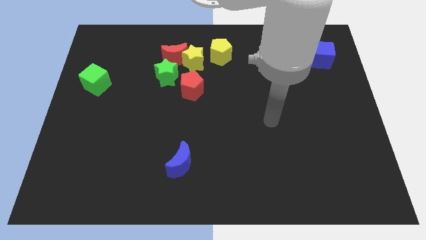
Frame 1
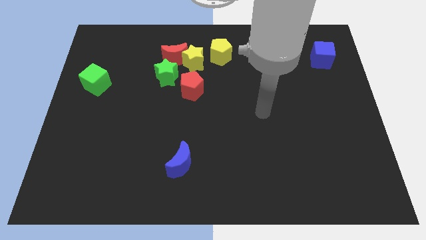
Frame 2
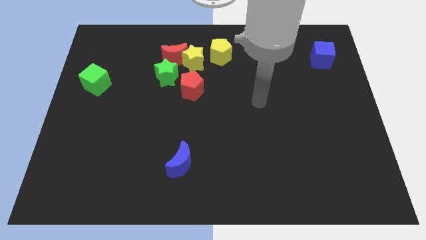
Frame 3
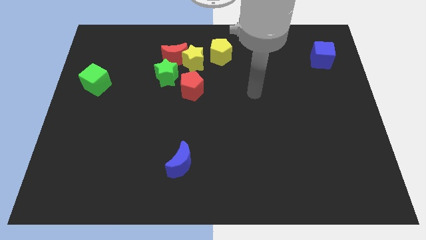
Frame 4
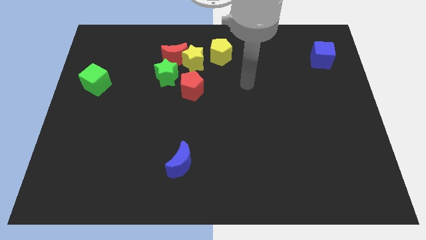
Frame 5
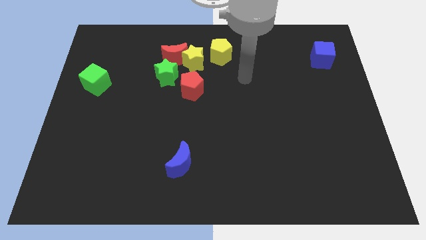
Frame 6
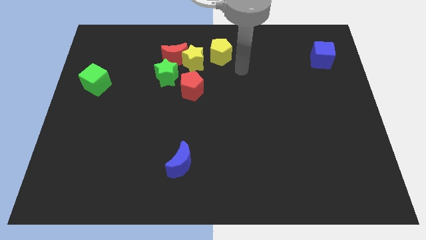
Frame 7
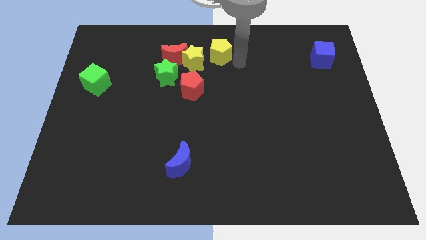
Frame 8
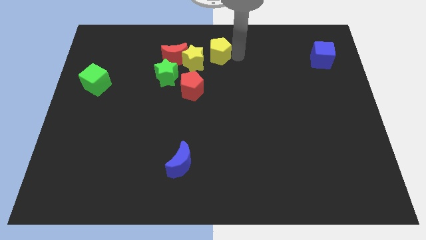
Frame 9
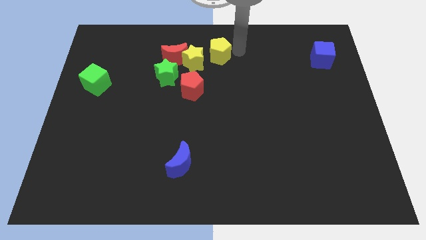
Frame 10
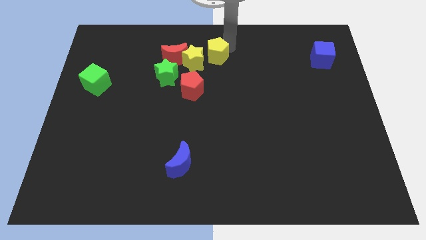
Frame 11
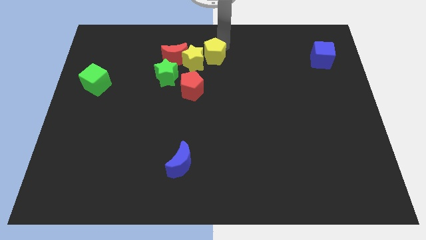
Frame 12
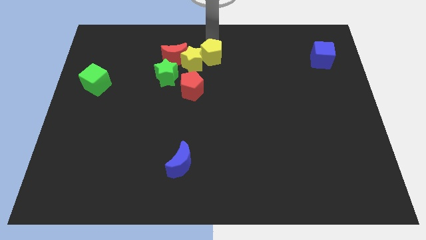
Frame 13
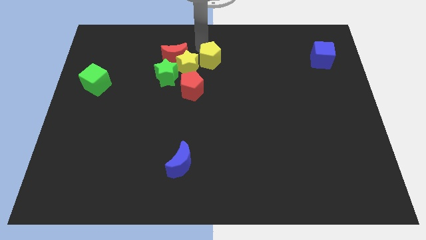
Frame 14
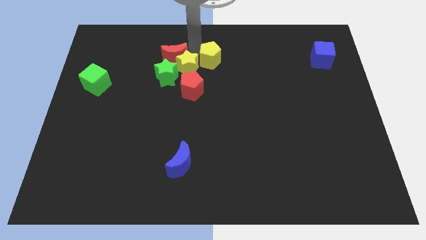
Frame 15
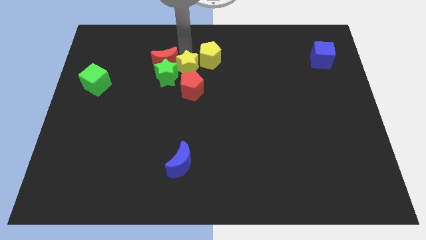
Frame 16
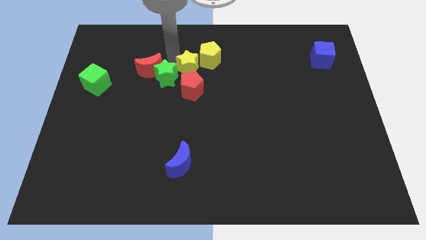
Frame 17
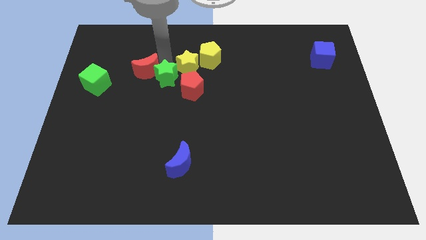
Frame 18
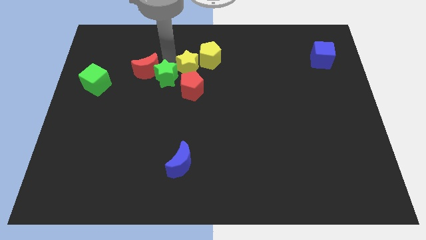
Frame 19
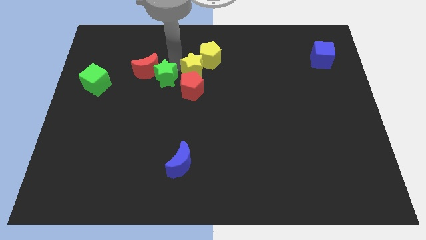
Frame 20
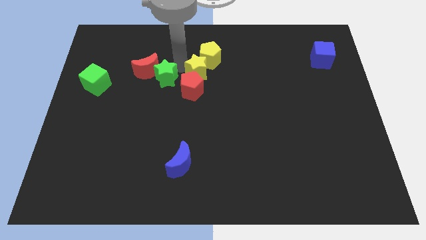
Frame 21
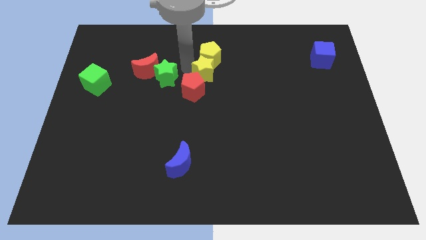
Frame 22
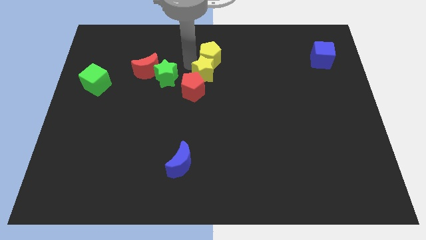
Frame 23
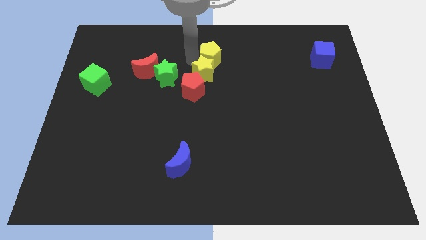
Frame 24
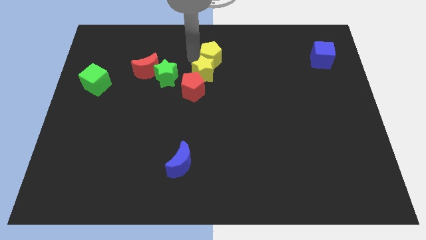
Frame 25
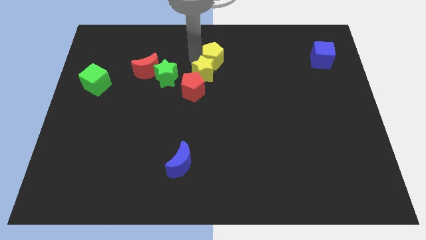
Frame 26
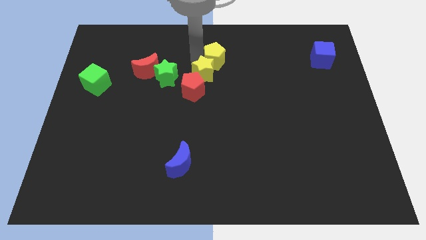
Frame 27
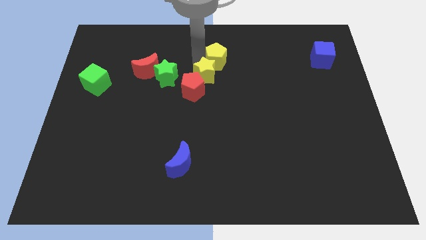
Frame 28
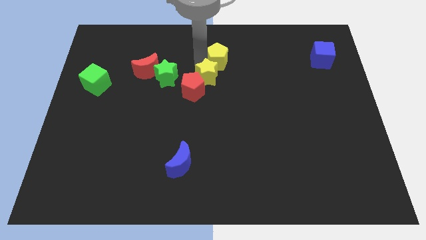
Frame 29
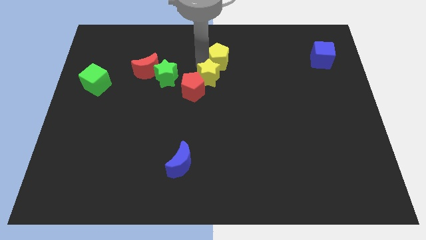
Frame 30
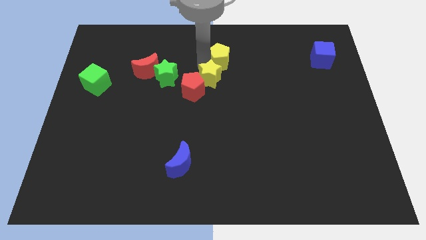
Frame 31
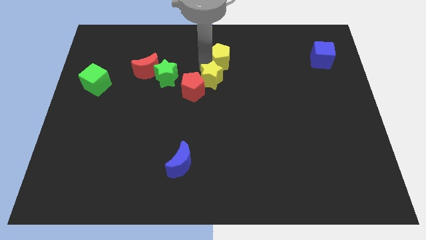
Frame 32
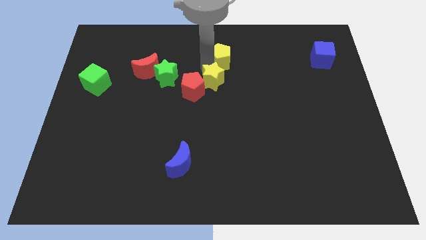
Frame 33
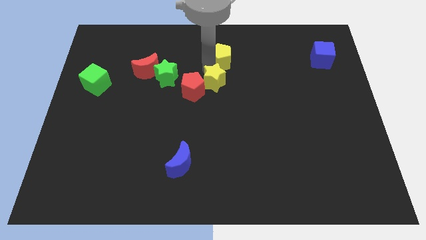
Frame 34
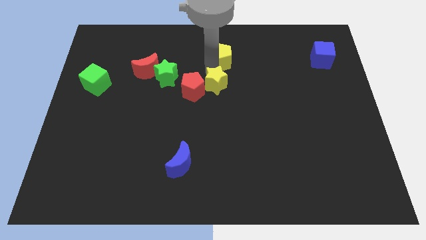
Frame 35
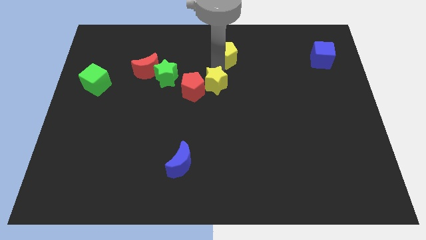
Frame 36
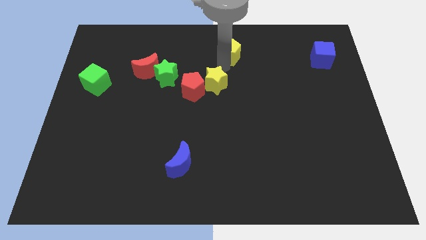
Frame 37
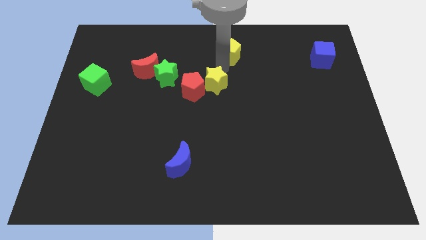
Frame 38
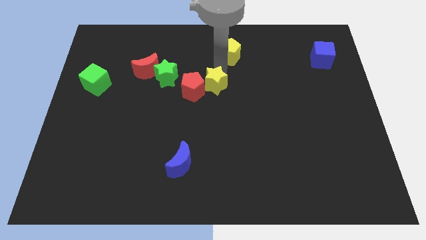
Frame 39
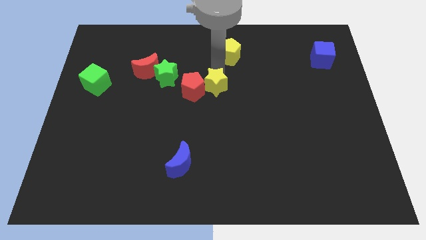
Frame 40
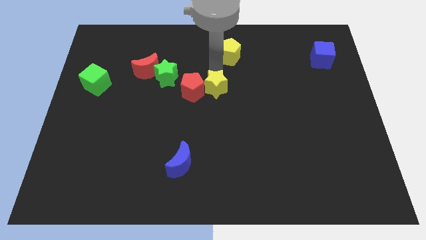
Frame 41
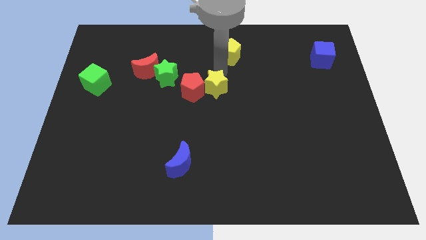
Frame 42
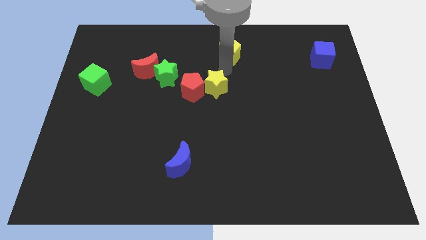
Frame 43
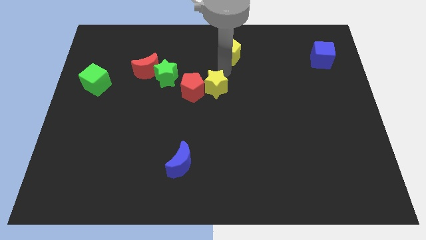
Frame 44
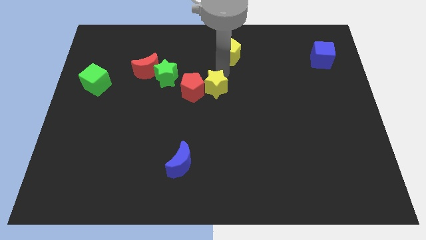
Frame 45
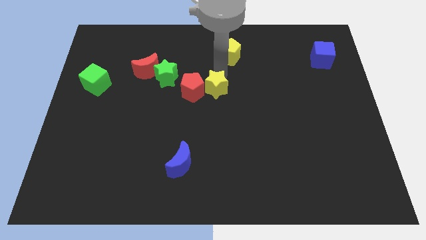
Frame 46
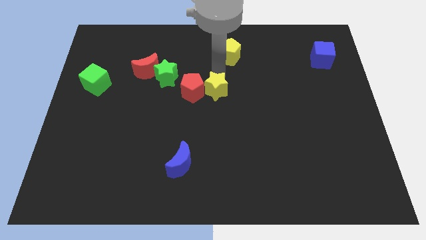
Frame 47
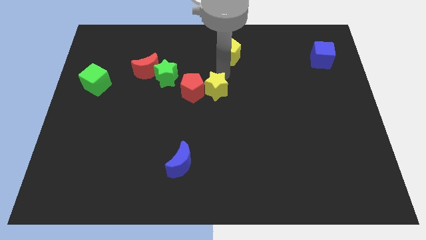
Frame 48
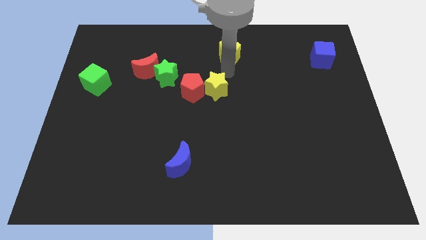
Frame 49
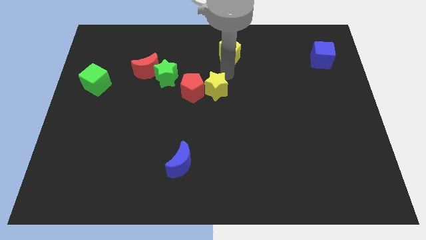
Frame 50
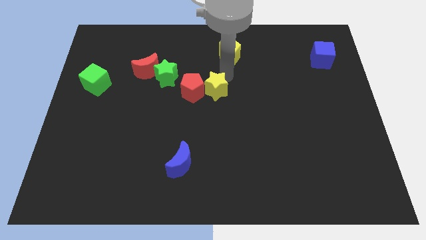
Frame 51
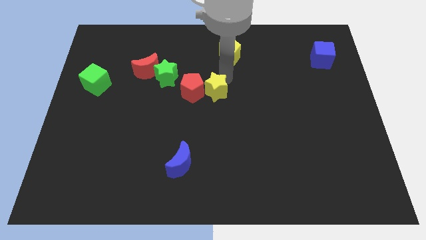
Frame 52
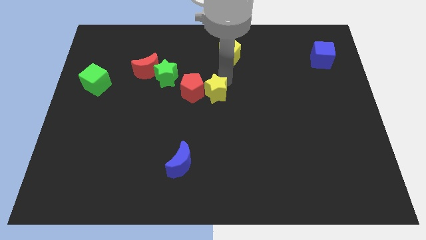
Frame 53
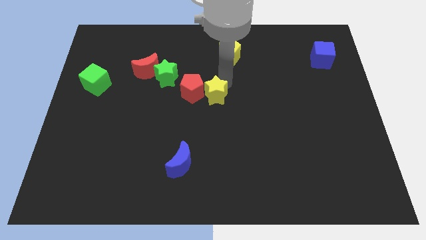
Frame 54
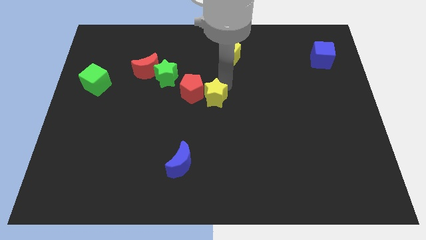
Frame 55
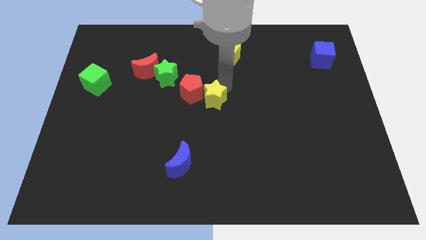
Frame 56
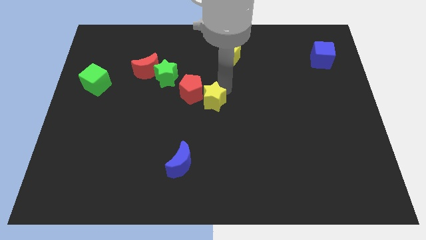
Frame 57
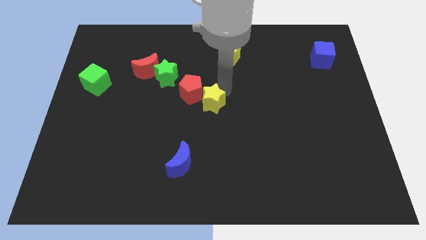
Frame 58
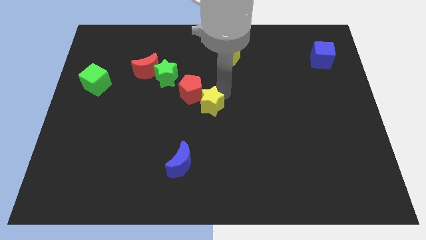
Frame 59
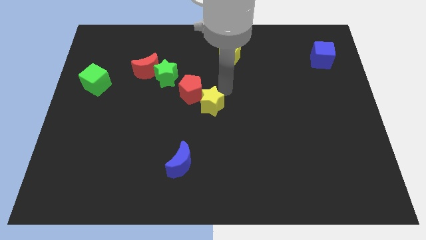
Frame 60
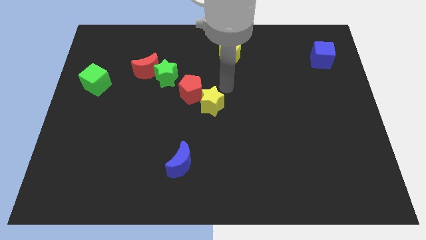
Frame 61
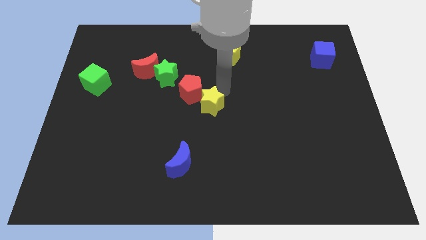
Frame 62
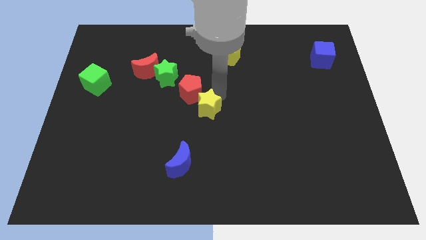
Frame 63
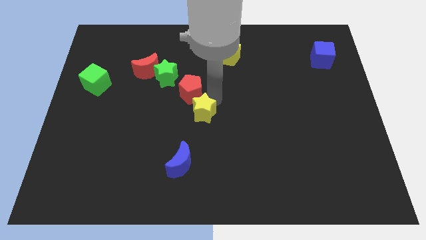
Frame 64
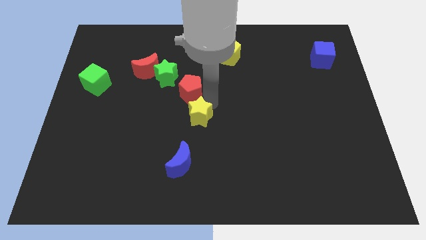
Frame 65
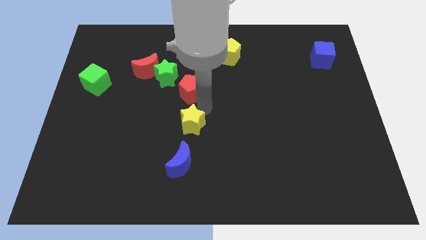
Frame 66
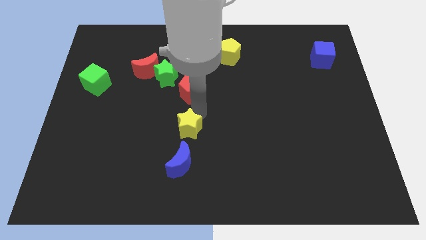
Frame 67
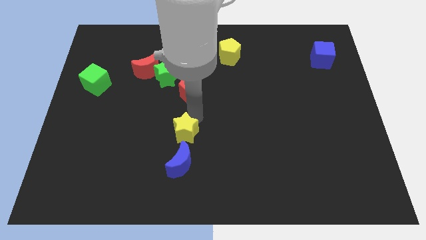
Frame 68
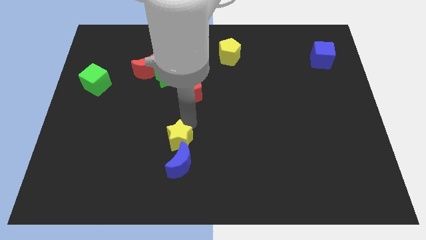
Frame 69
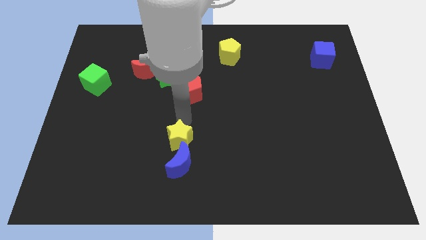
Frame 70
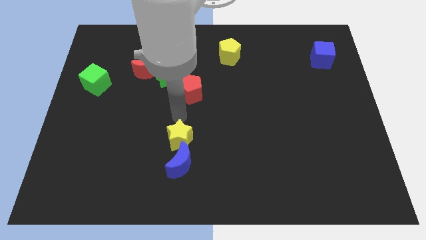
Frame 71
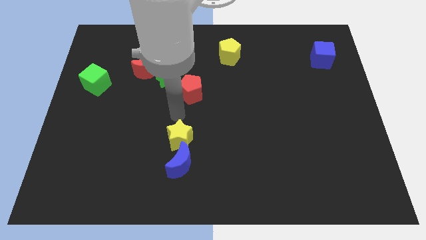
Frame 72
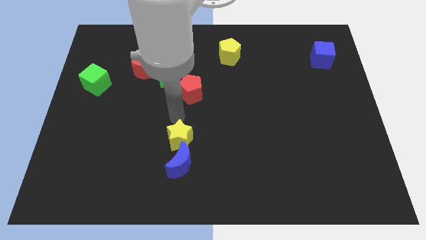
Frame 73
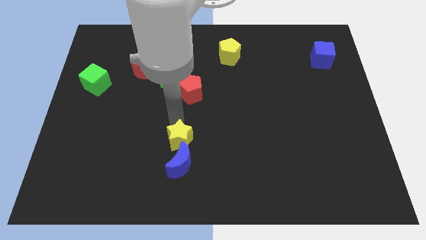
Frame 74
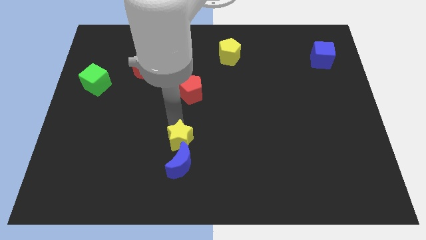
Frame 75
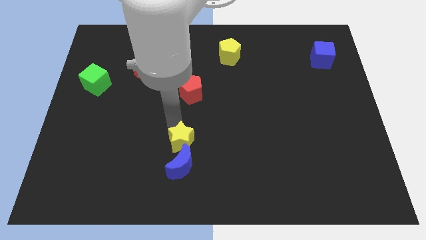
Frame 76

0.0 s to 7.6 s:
push the yellow star close to the blue moon
